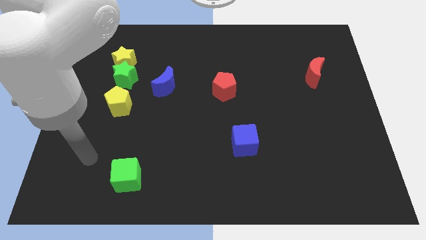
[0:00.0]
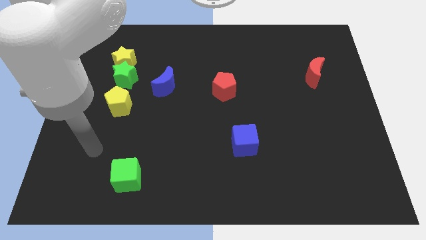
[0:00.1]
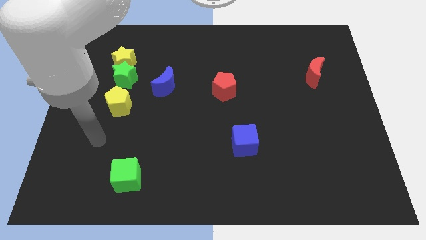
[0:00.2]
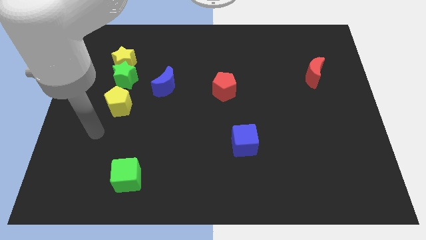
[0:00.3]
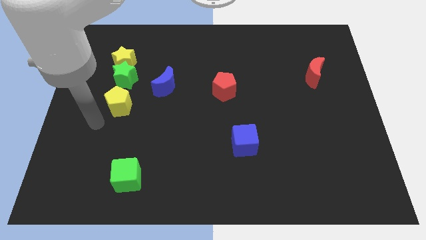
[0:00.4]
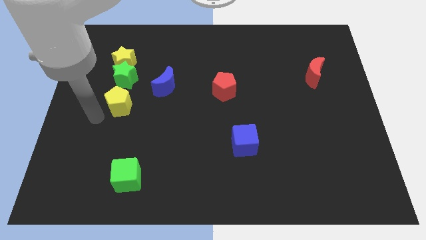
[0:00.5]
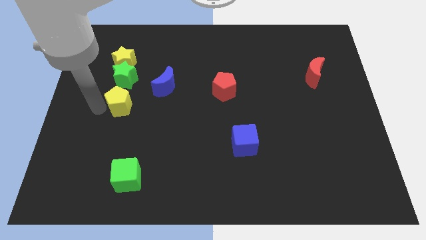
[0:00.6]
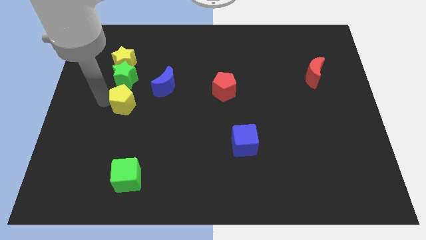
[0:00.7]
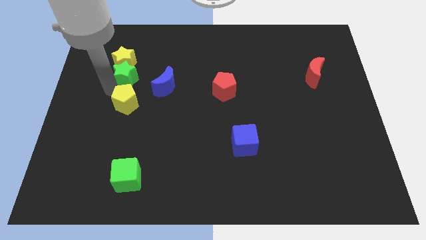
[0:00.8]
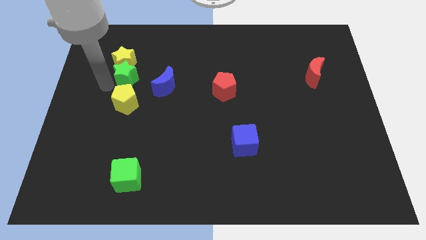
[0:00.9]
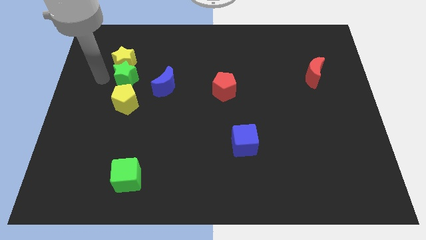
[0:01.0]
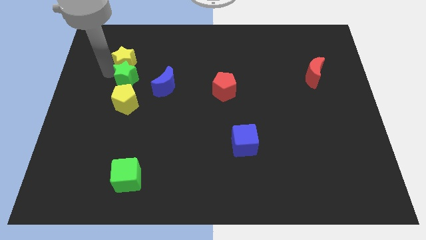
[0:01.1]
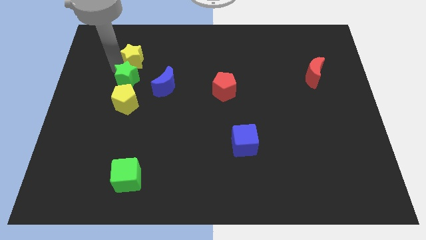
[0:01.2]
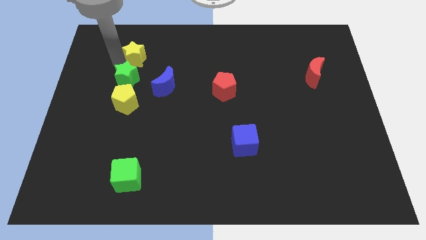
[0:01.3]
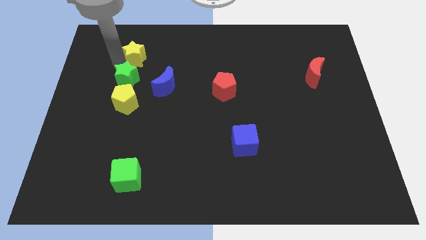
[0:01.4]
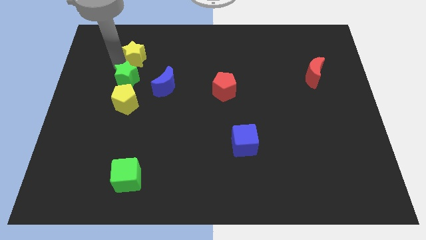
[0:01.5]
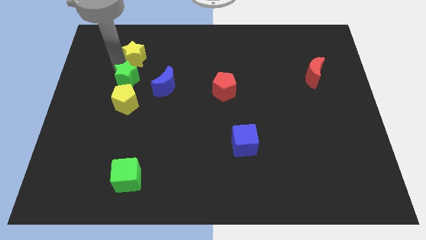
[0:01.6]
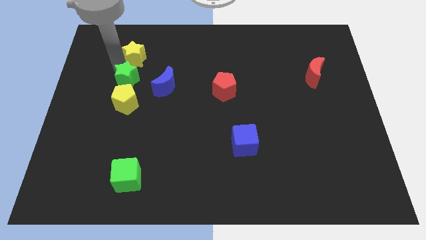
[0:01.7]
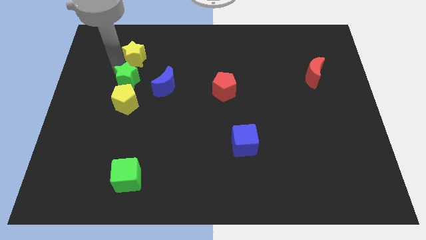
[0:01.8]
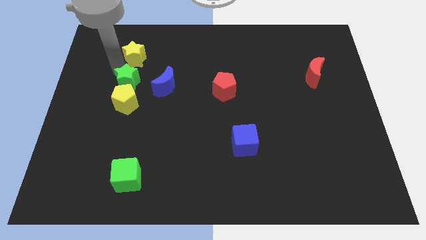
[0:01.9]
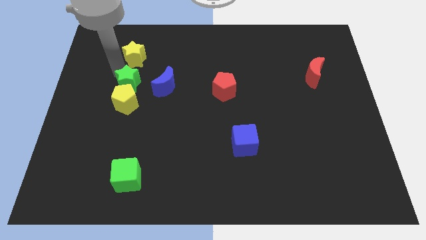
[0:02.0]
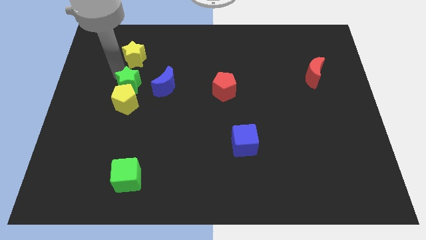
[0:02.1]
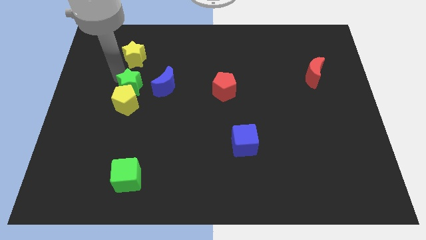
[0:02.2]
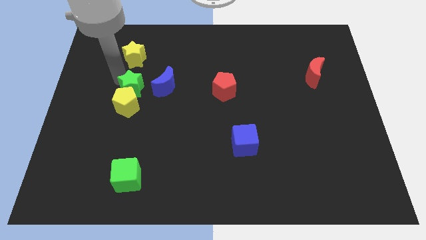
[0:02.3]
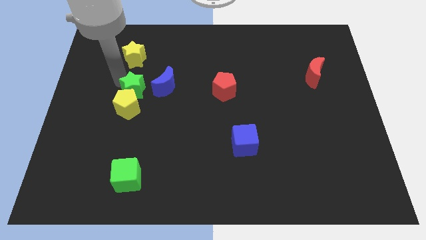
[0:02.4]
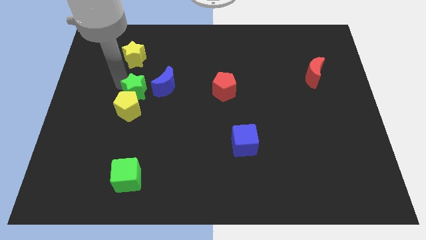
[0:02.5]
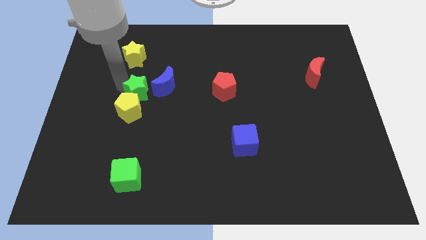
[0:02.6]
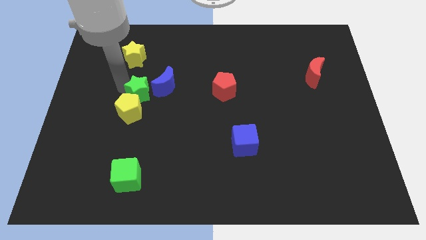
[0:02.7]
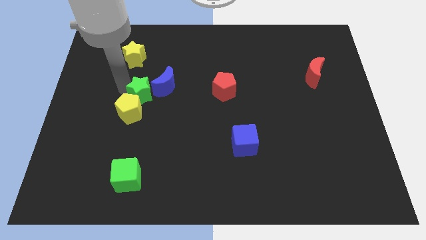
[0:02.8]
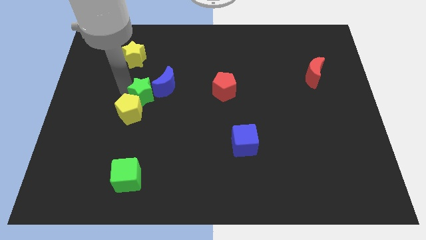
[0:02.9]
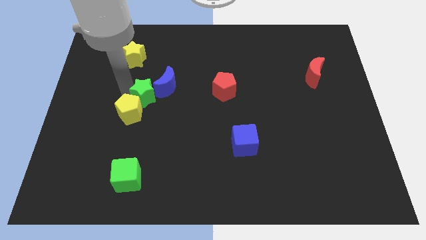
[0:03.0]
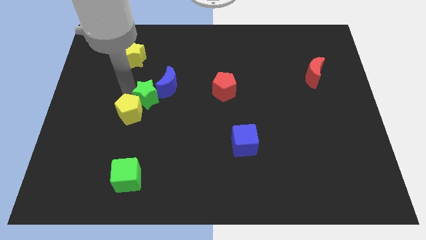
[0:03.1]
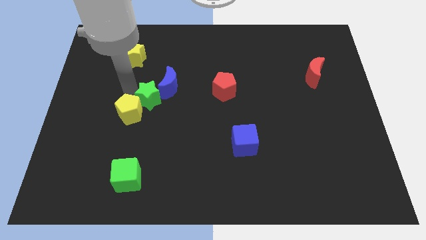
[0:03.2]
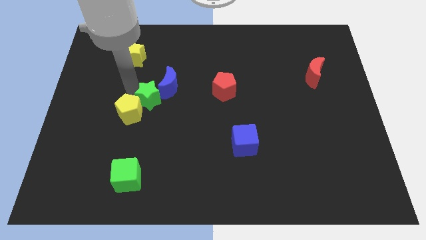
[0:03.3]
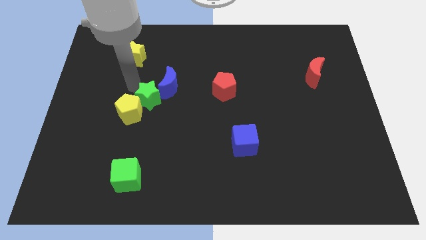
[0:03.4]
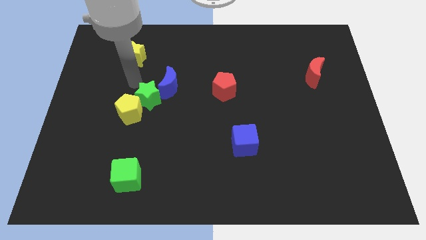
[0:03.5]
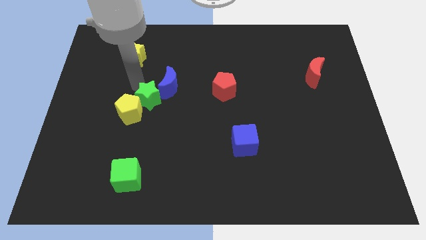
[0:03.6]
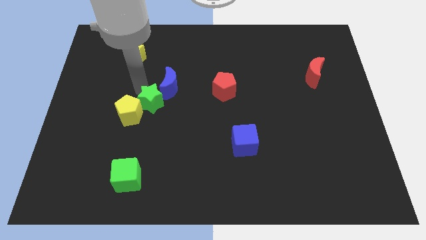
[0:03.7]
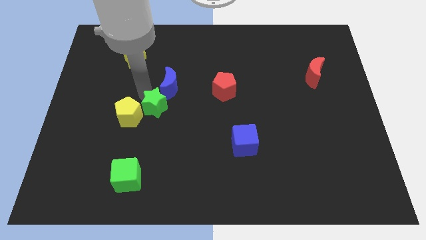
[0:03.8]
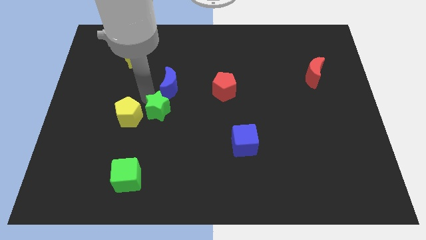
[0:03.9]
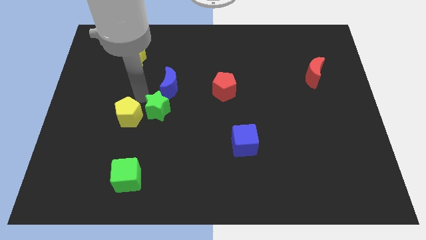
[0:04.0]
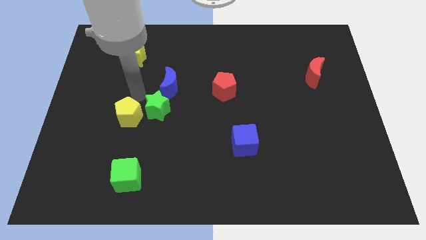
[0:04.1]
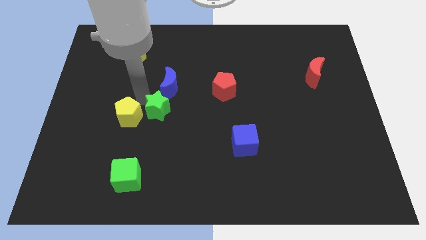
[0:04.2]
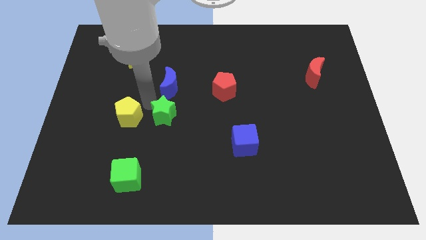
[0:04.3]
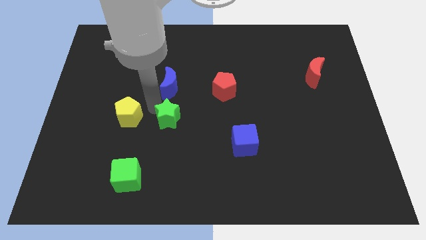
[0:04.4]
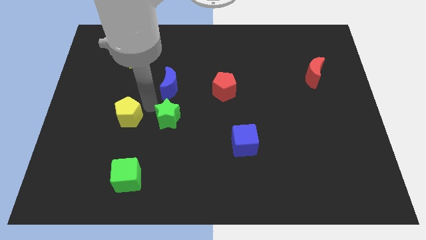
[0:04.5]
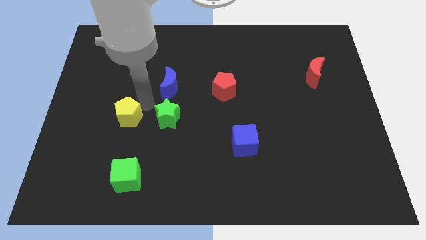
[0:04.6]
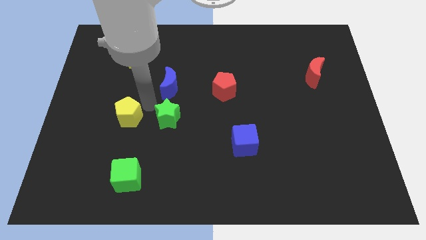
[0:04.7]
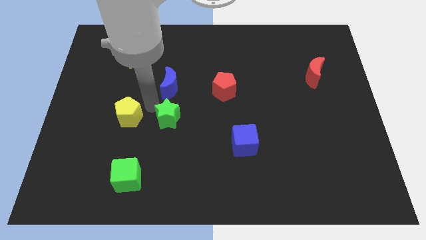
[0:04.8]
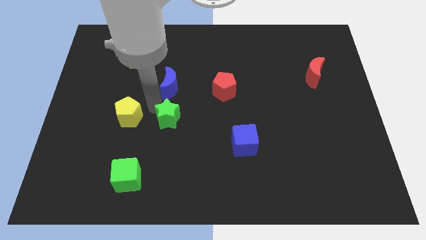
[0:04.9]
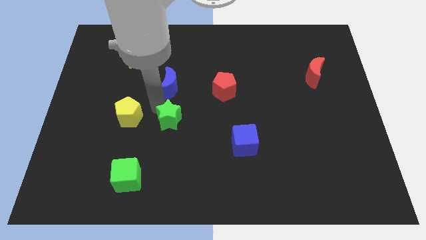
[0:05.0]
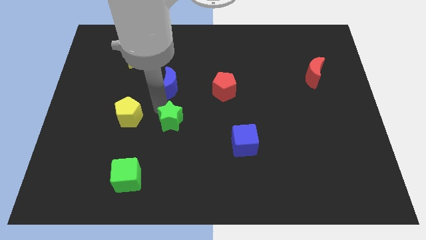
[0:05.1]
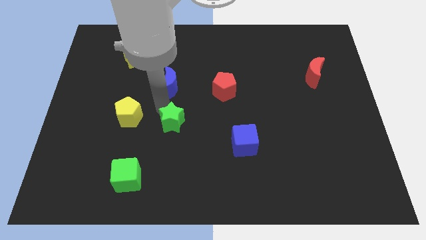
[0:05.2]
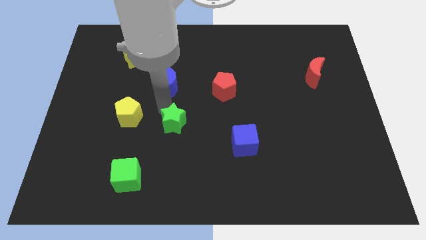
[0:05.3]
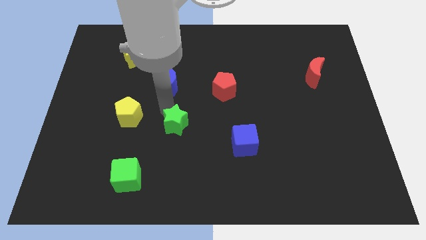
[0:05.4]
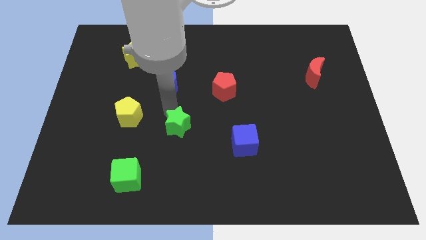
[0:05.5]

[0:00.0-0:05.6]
push the green star downwards and right diagonally

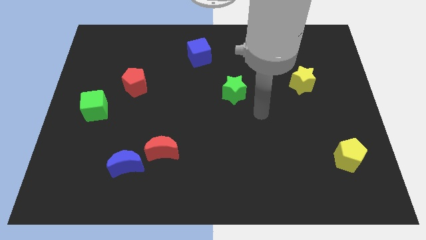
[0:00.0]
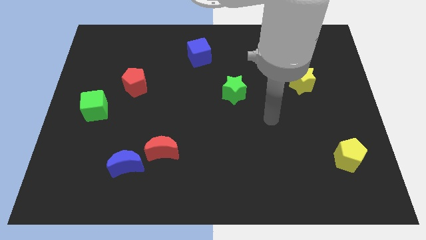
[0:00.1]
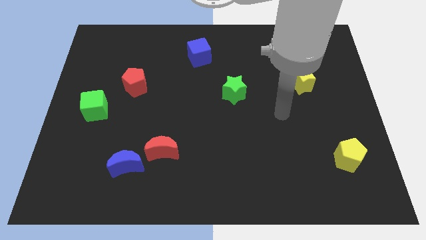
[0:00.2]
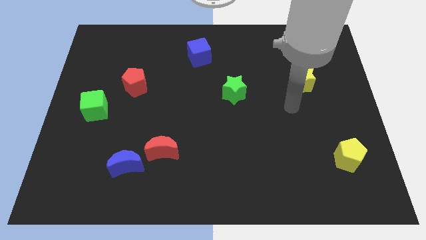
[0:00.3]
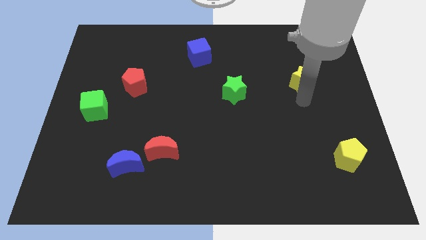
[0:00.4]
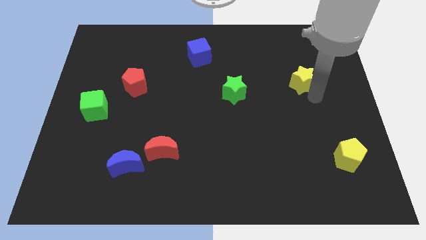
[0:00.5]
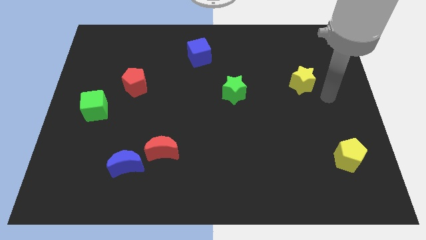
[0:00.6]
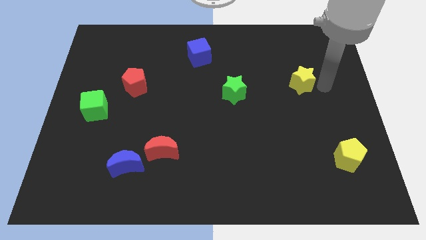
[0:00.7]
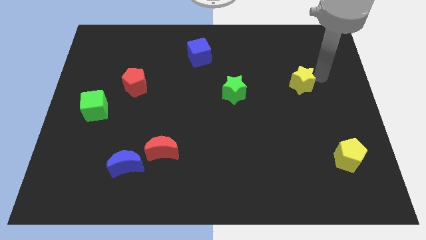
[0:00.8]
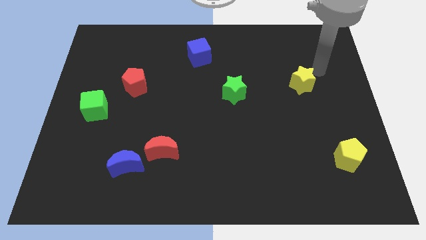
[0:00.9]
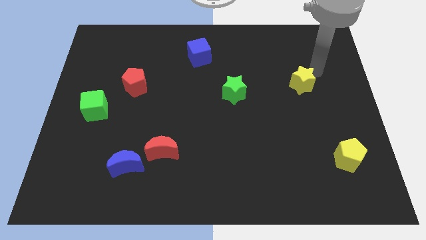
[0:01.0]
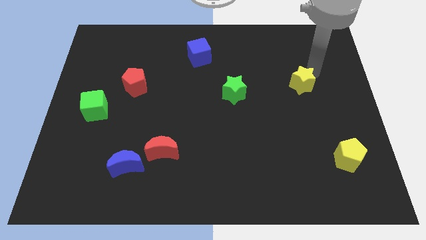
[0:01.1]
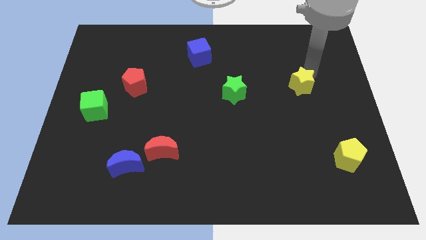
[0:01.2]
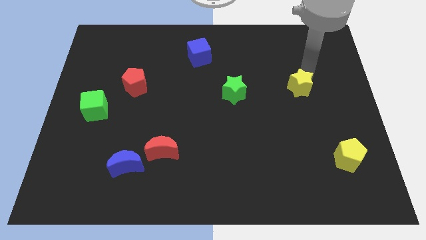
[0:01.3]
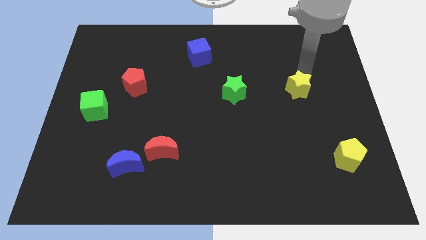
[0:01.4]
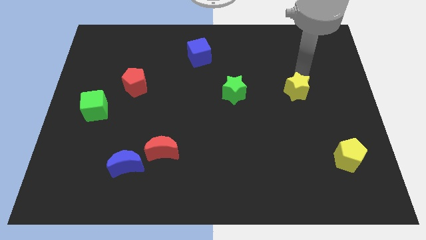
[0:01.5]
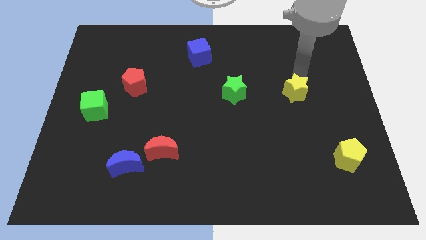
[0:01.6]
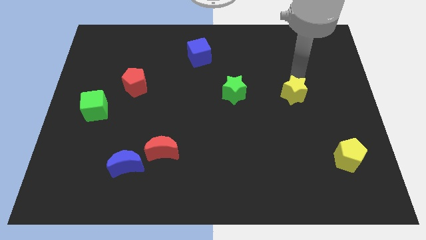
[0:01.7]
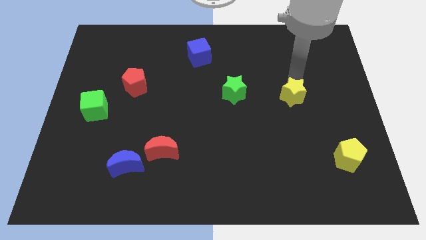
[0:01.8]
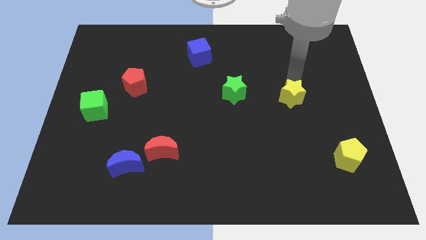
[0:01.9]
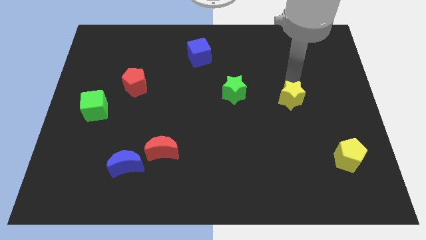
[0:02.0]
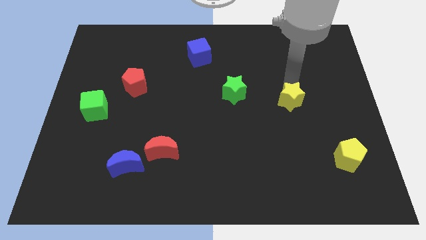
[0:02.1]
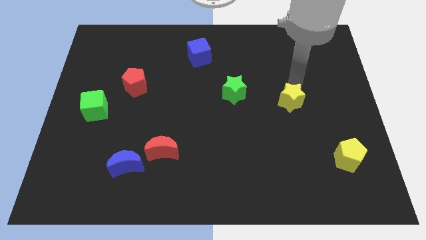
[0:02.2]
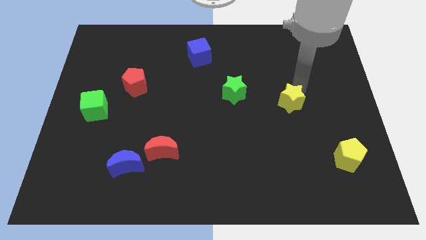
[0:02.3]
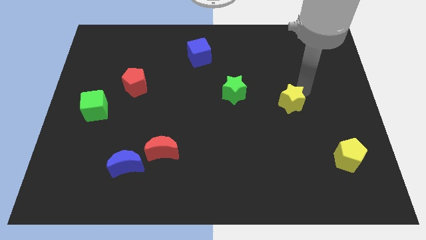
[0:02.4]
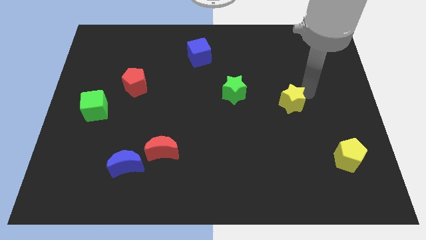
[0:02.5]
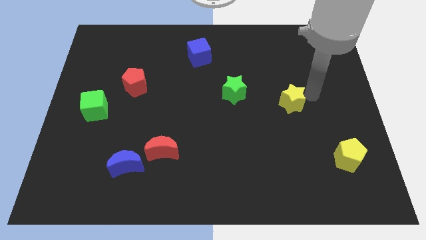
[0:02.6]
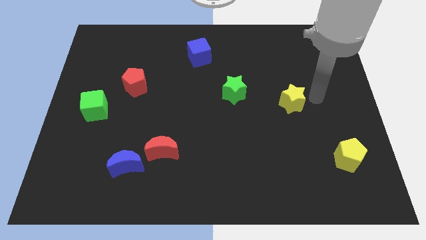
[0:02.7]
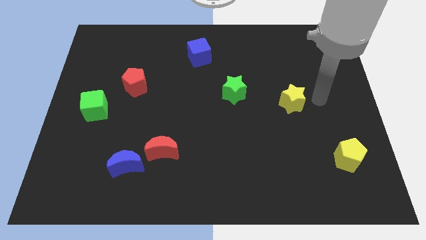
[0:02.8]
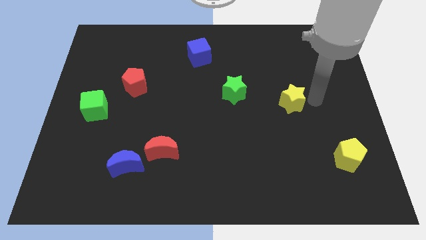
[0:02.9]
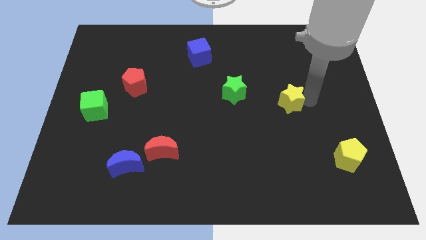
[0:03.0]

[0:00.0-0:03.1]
slightly move the yellow star downwards and to the left
